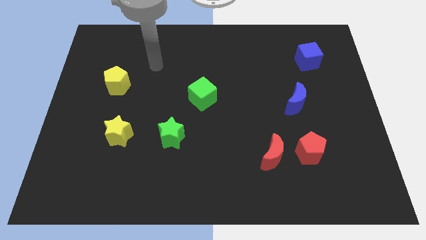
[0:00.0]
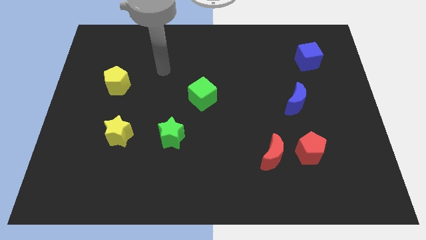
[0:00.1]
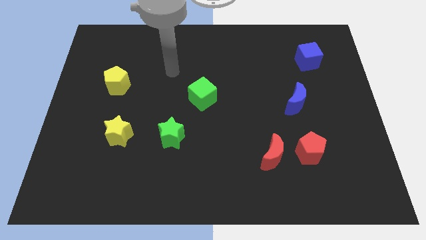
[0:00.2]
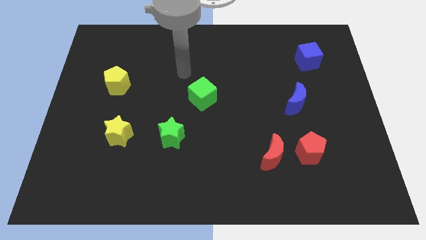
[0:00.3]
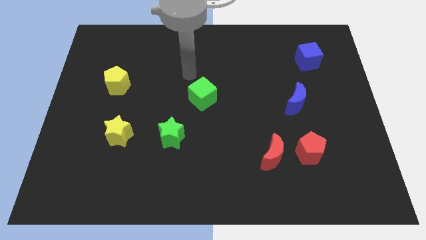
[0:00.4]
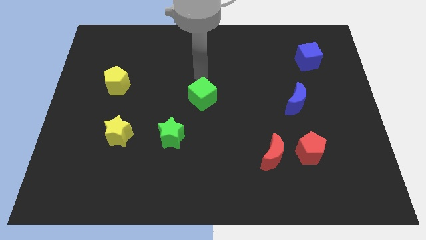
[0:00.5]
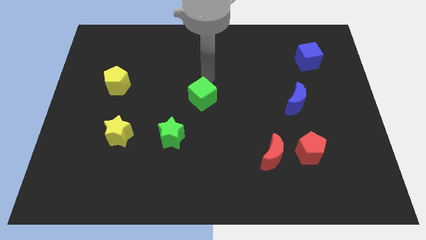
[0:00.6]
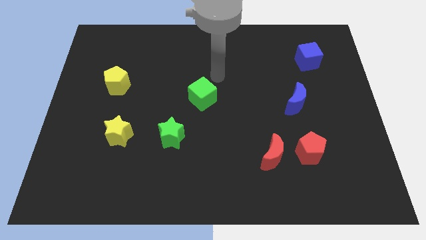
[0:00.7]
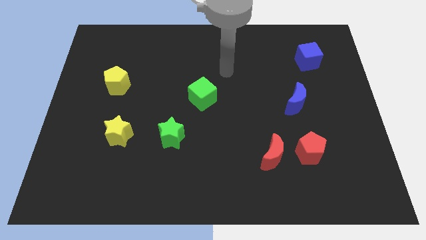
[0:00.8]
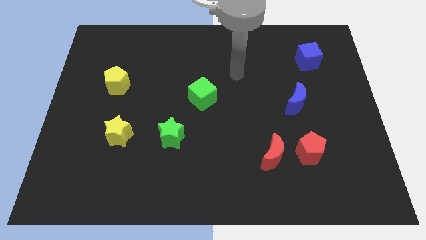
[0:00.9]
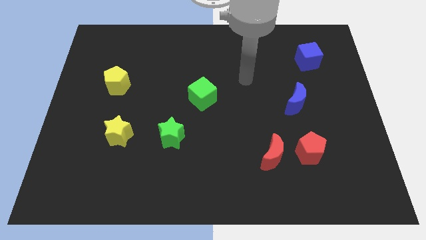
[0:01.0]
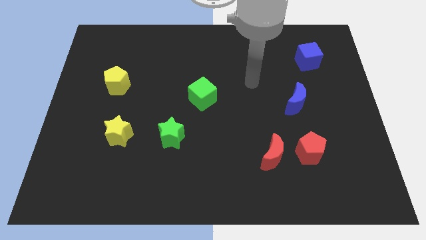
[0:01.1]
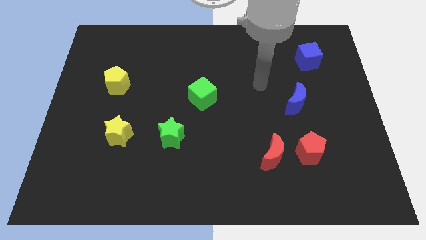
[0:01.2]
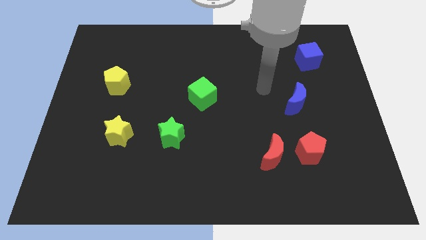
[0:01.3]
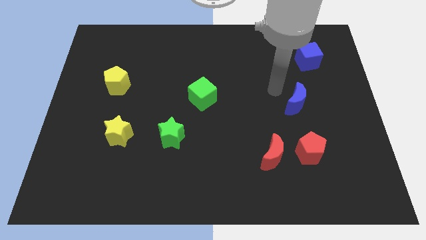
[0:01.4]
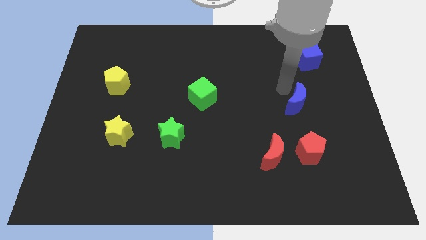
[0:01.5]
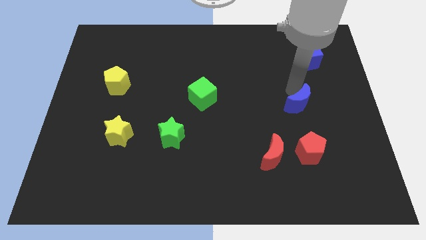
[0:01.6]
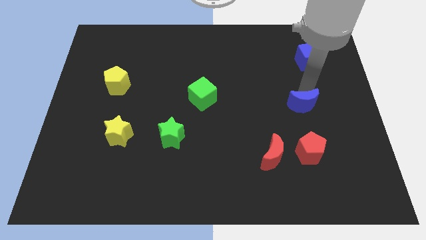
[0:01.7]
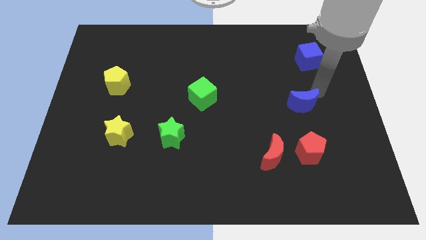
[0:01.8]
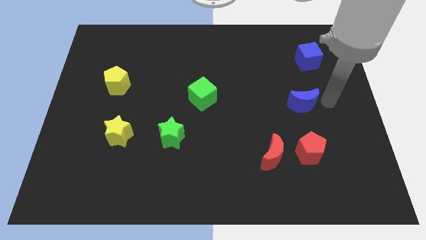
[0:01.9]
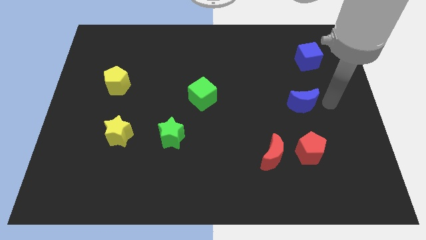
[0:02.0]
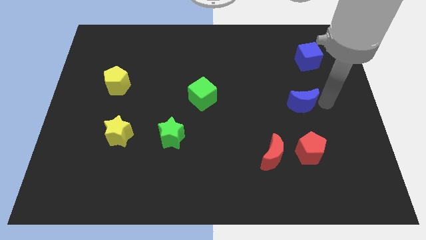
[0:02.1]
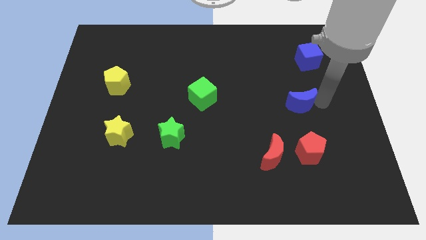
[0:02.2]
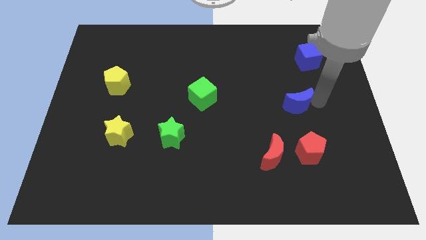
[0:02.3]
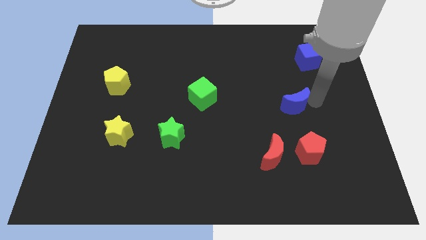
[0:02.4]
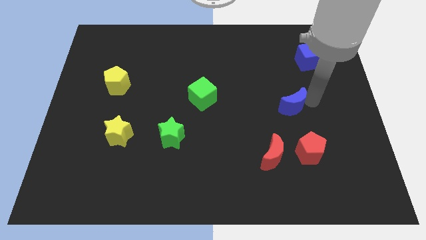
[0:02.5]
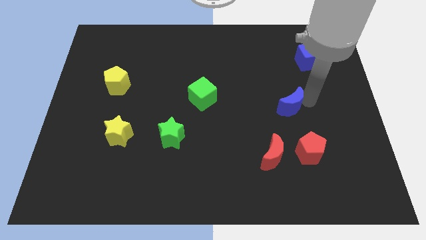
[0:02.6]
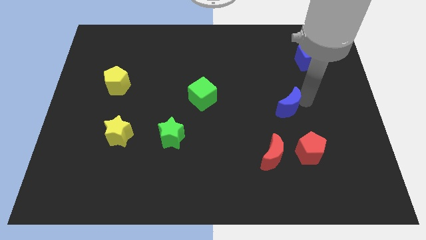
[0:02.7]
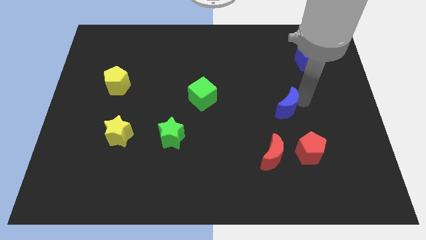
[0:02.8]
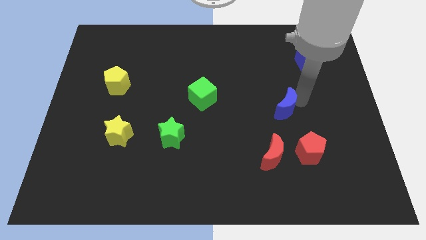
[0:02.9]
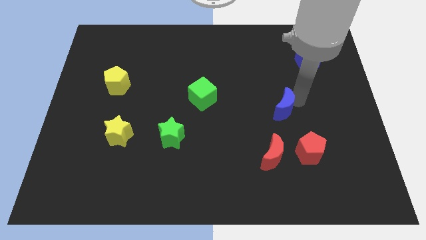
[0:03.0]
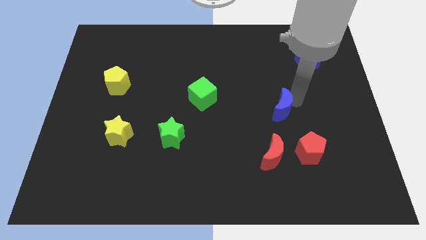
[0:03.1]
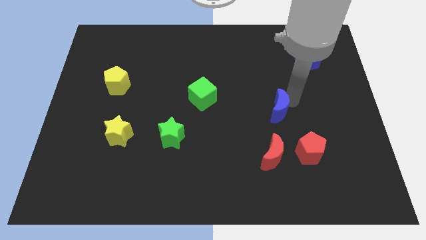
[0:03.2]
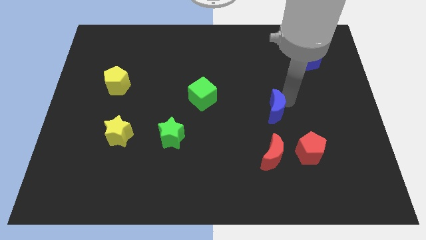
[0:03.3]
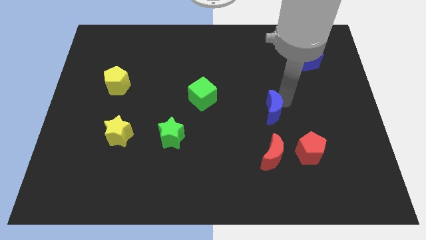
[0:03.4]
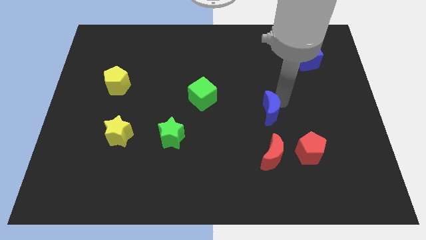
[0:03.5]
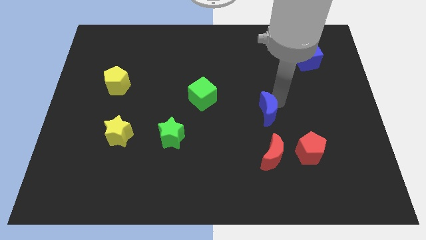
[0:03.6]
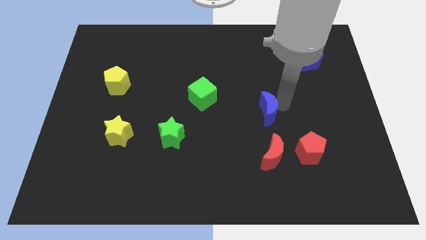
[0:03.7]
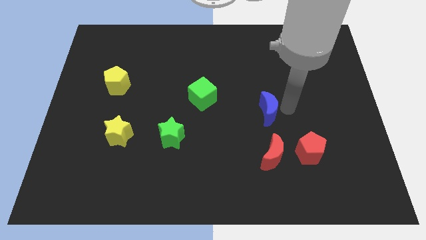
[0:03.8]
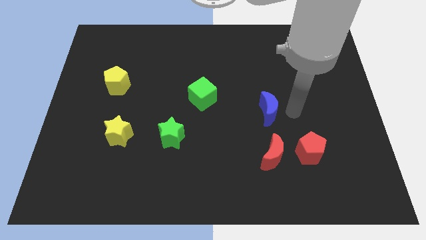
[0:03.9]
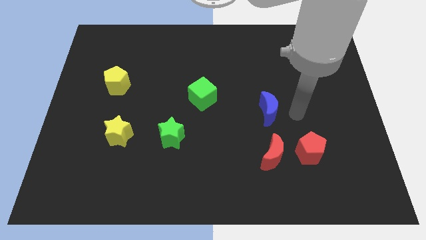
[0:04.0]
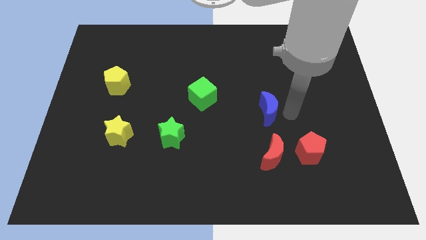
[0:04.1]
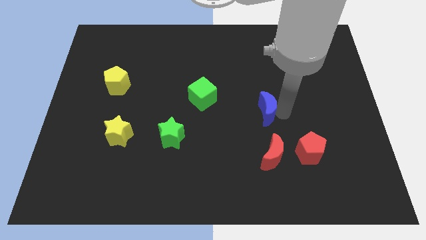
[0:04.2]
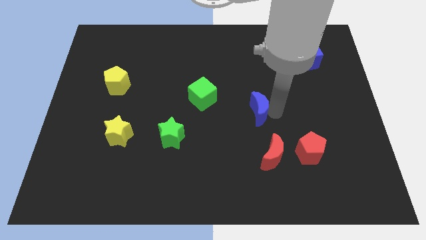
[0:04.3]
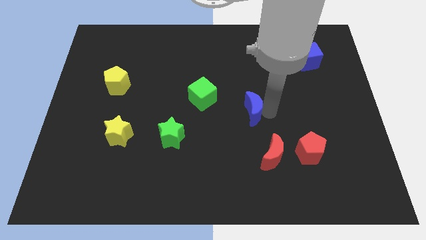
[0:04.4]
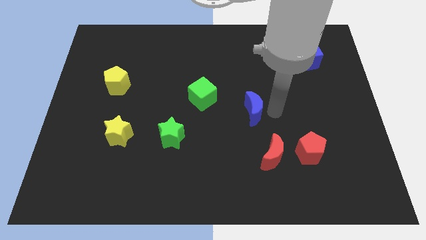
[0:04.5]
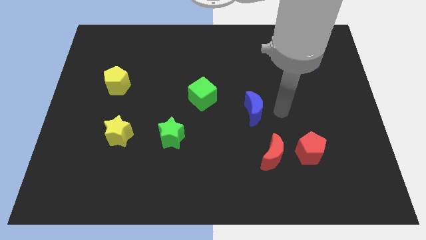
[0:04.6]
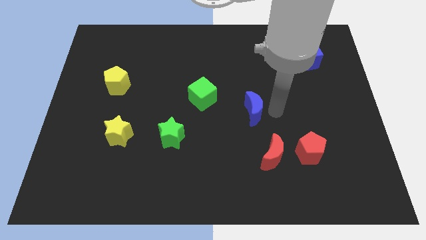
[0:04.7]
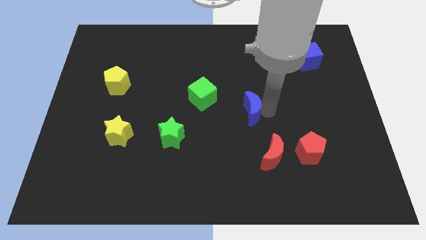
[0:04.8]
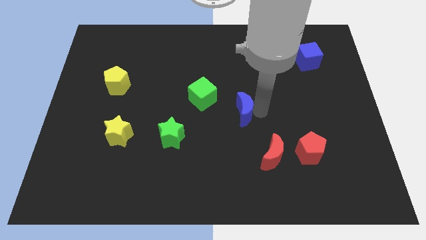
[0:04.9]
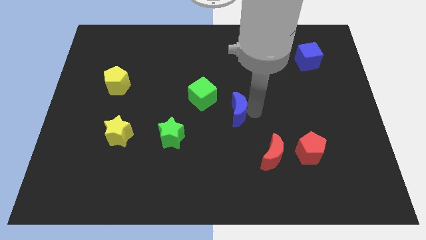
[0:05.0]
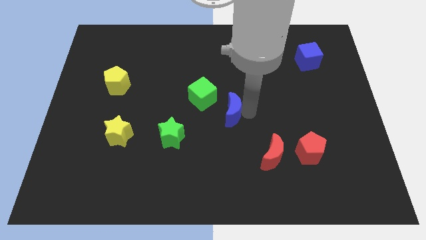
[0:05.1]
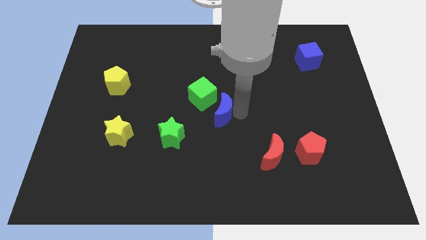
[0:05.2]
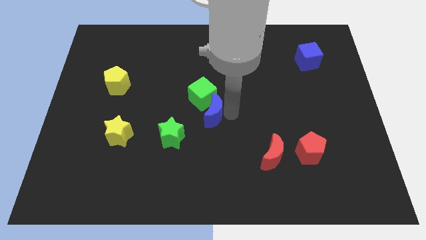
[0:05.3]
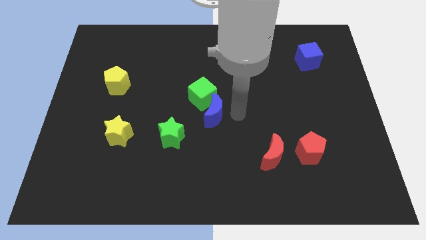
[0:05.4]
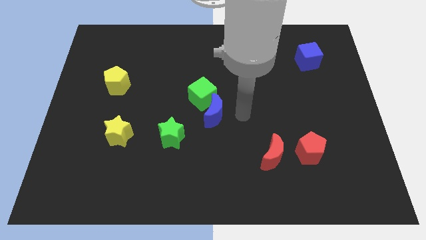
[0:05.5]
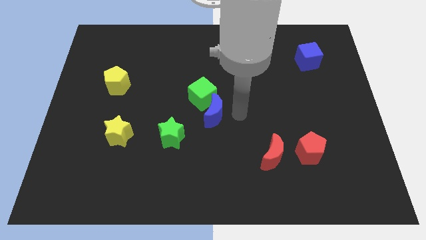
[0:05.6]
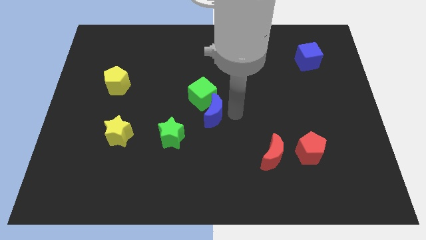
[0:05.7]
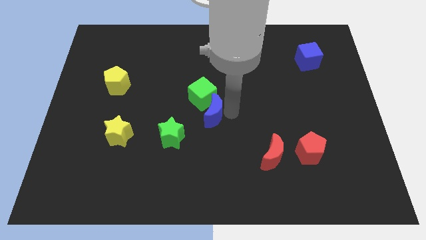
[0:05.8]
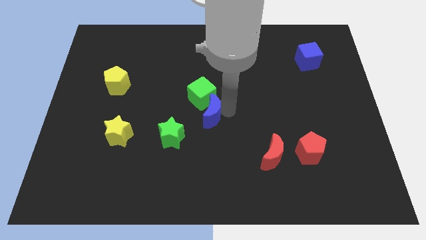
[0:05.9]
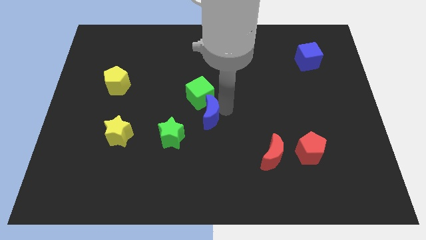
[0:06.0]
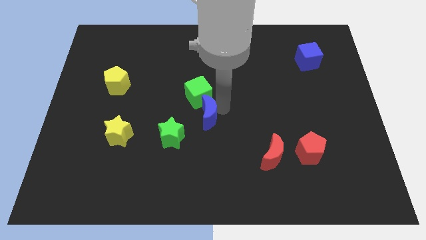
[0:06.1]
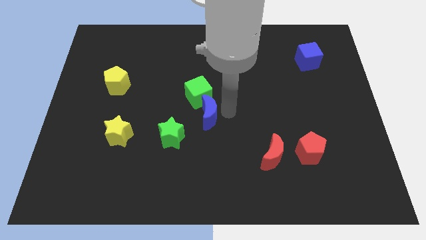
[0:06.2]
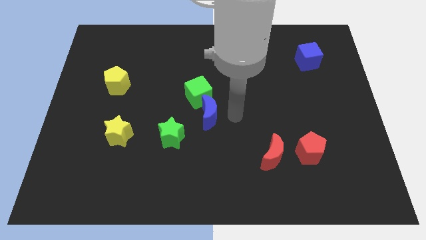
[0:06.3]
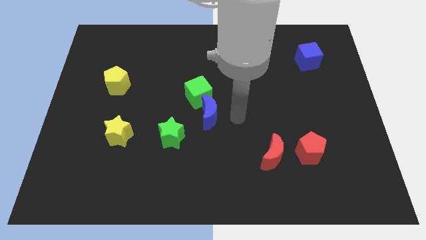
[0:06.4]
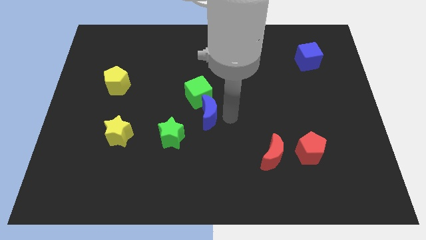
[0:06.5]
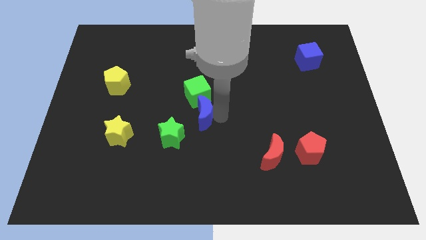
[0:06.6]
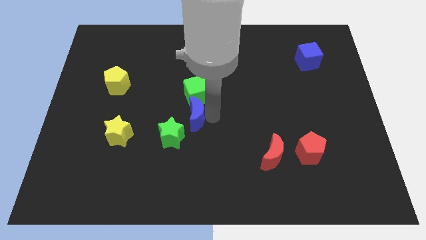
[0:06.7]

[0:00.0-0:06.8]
put the blue moon to the bottom left side of the green cube

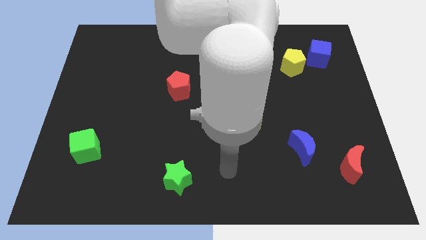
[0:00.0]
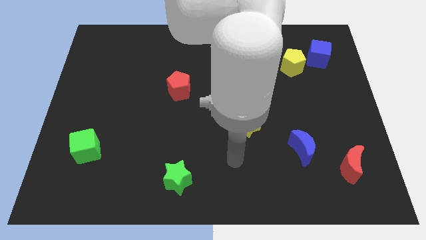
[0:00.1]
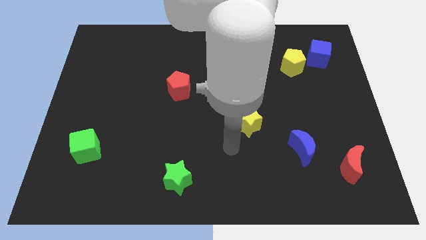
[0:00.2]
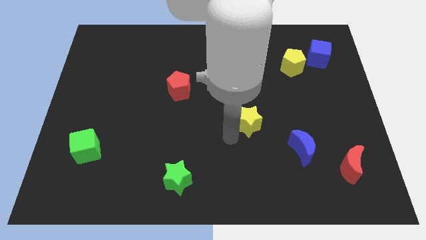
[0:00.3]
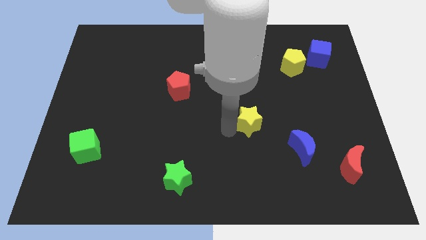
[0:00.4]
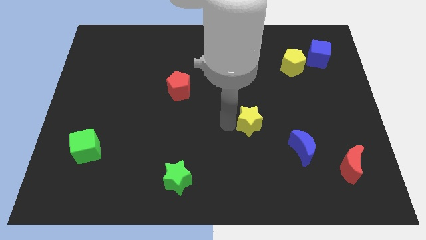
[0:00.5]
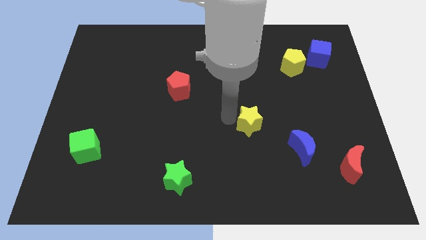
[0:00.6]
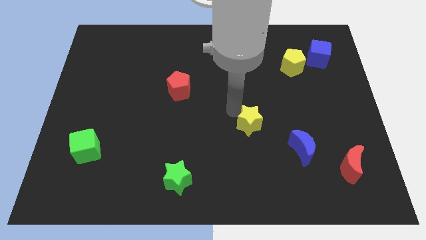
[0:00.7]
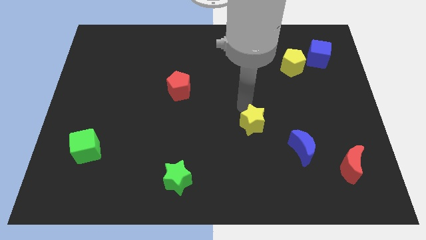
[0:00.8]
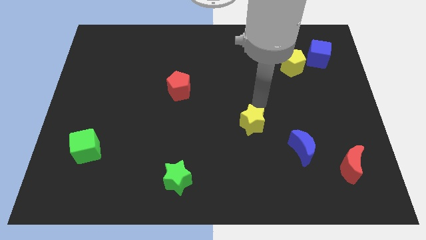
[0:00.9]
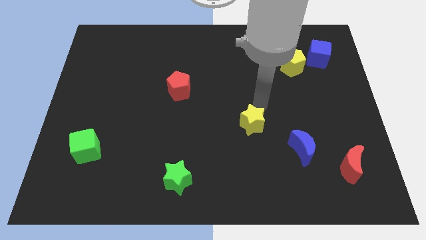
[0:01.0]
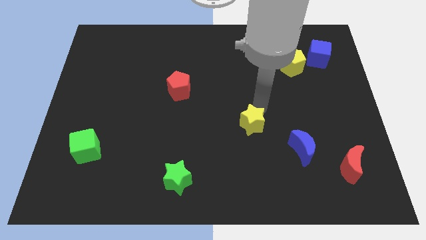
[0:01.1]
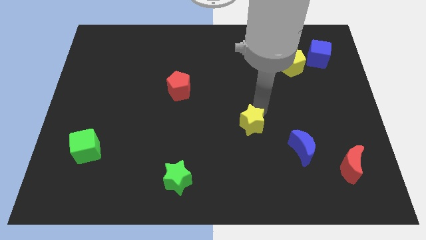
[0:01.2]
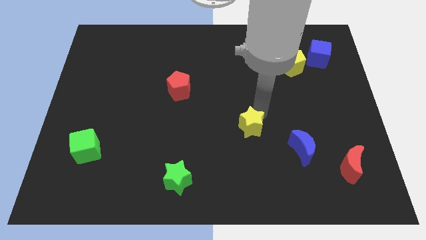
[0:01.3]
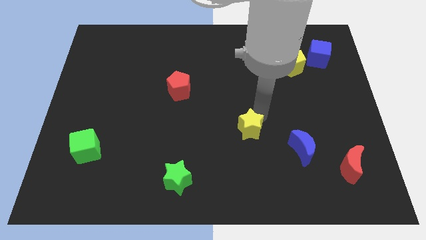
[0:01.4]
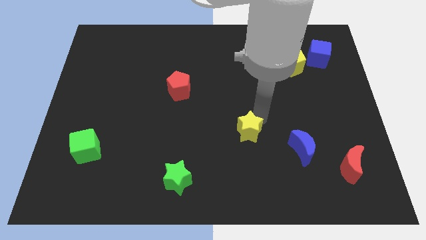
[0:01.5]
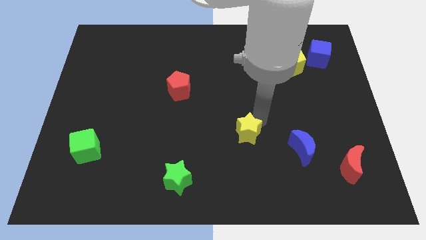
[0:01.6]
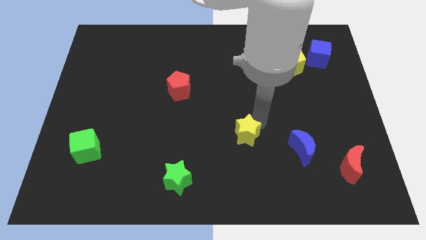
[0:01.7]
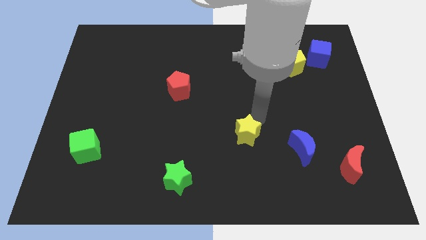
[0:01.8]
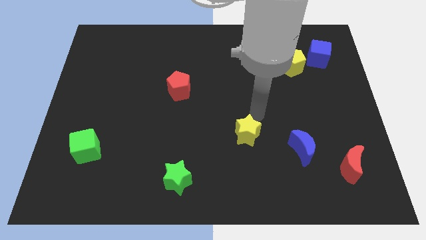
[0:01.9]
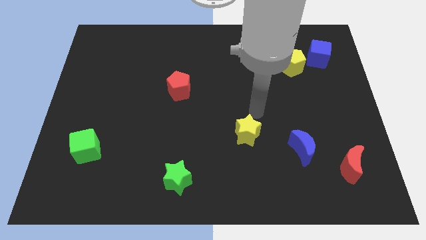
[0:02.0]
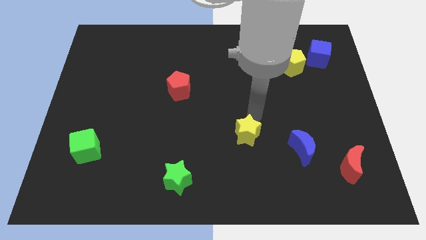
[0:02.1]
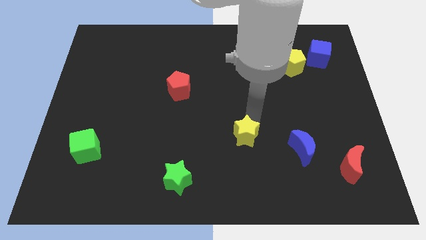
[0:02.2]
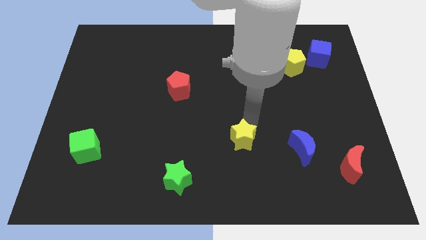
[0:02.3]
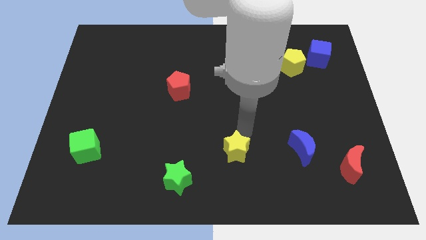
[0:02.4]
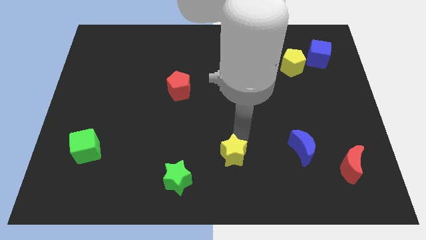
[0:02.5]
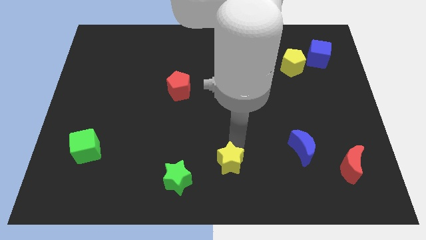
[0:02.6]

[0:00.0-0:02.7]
move the yellow star to the right of the green star
